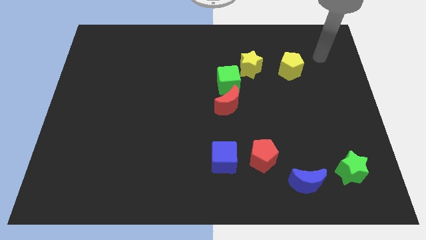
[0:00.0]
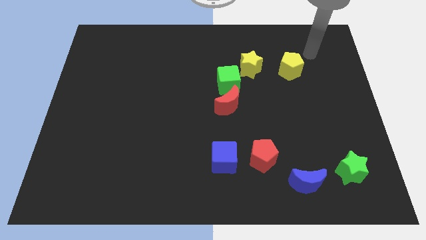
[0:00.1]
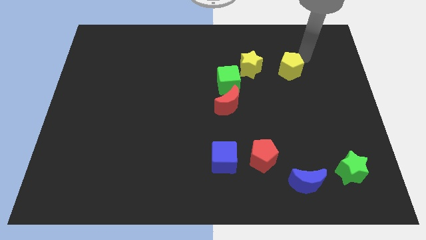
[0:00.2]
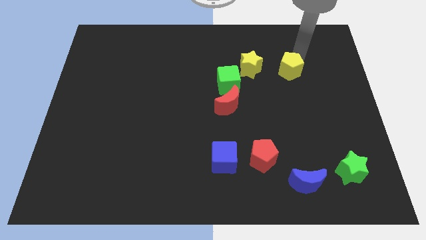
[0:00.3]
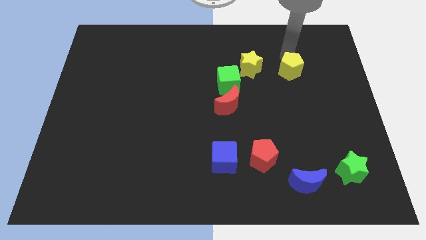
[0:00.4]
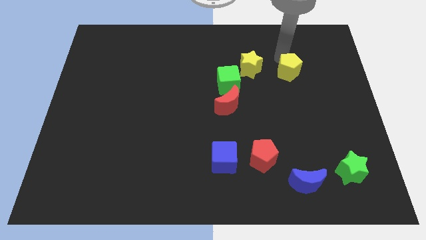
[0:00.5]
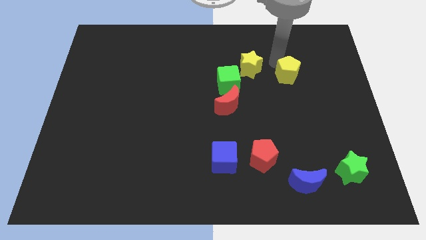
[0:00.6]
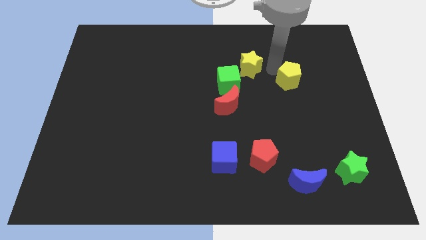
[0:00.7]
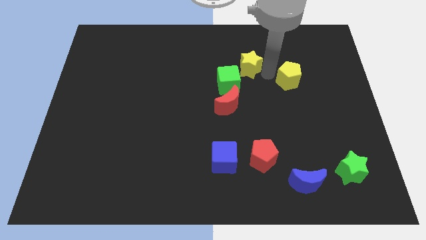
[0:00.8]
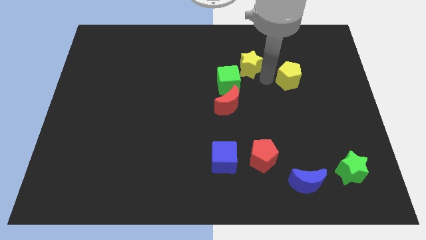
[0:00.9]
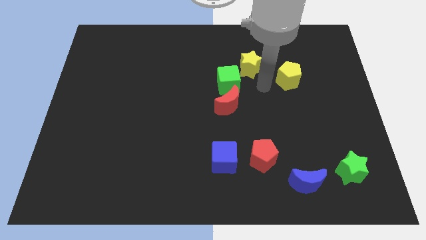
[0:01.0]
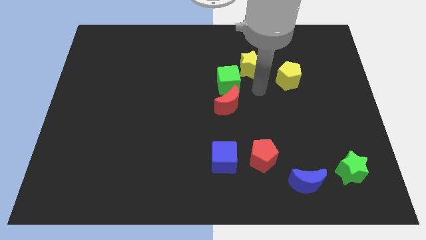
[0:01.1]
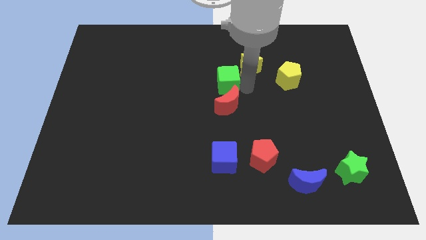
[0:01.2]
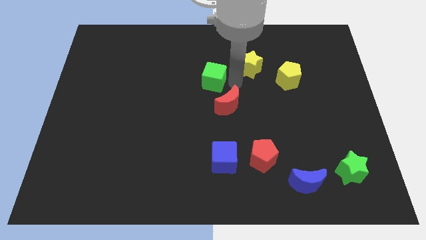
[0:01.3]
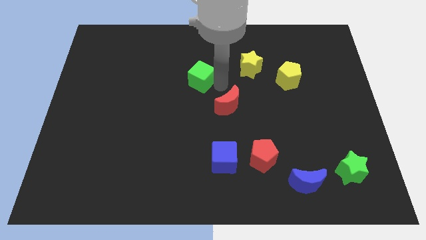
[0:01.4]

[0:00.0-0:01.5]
pull the red moon apart from the green cube

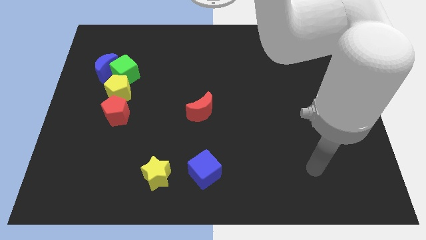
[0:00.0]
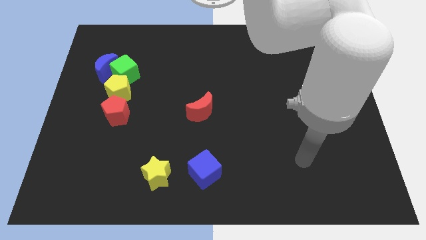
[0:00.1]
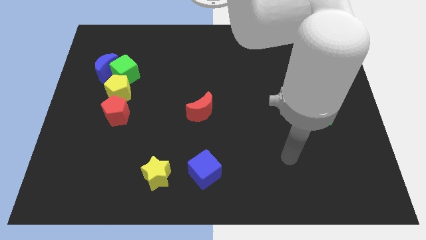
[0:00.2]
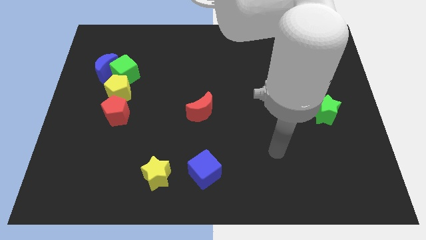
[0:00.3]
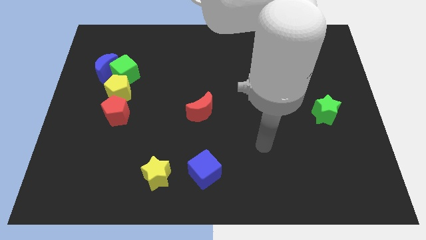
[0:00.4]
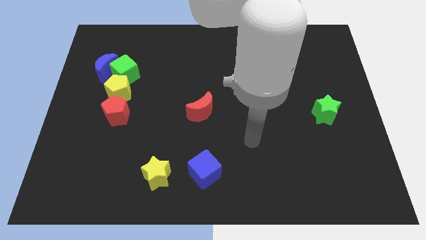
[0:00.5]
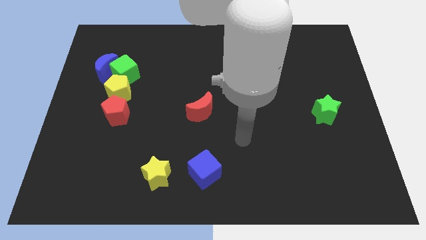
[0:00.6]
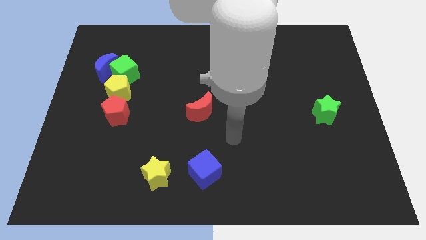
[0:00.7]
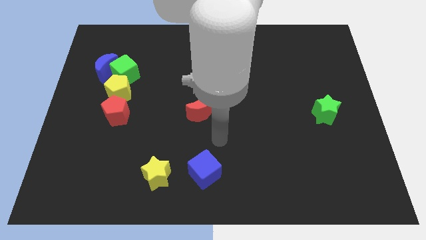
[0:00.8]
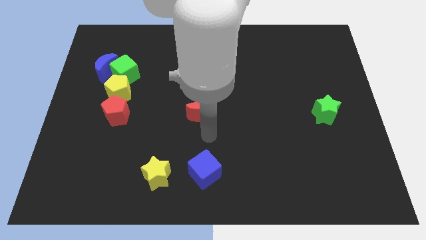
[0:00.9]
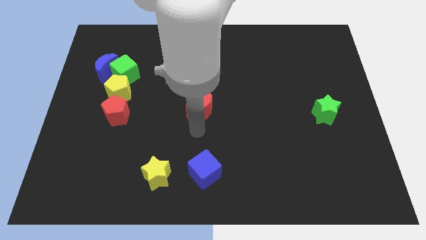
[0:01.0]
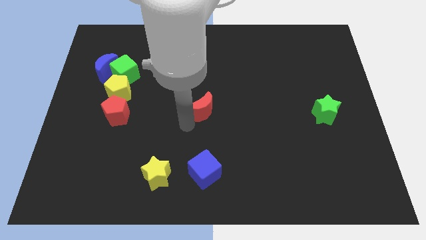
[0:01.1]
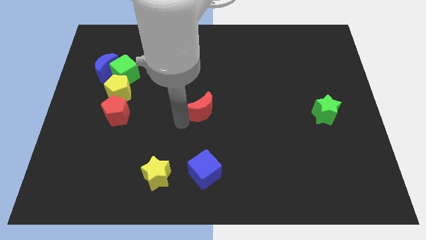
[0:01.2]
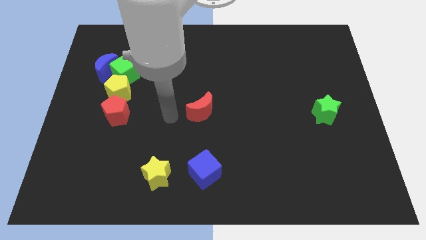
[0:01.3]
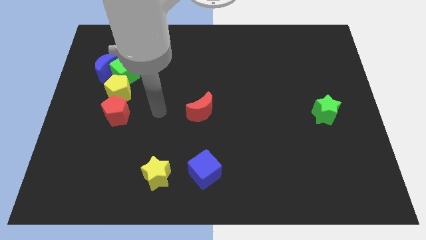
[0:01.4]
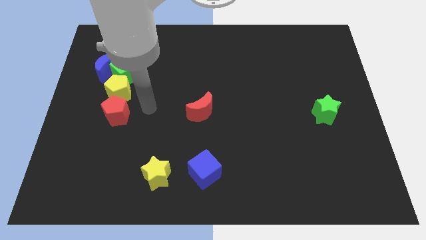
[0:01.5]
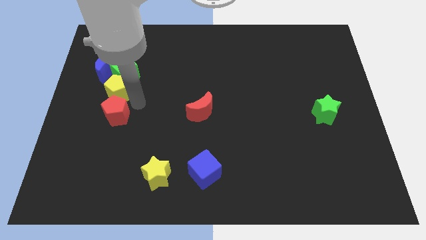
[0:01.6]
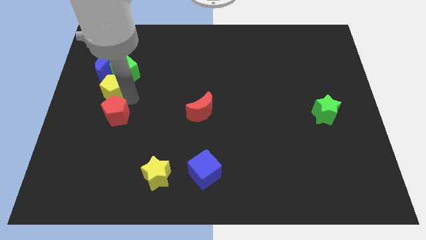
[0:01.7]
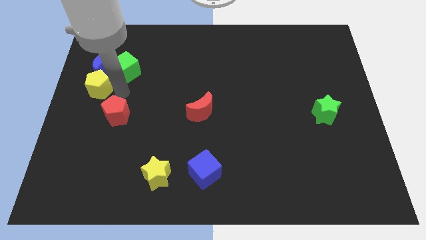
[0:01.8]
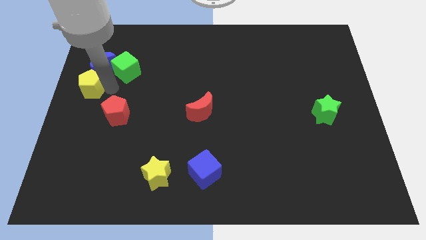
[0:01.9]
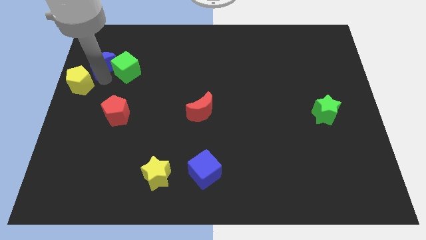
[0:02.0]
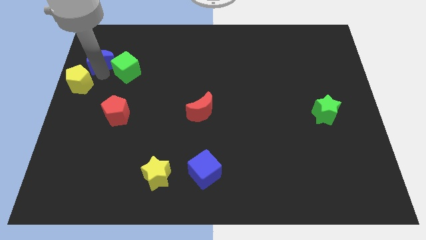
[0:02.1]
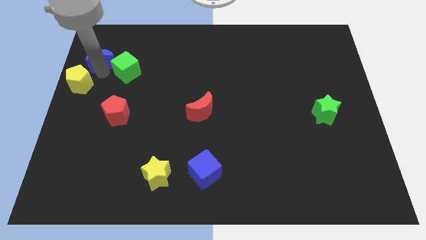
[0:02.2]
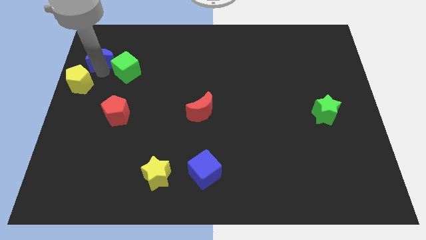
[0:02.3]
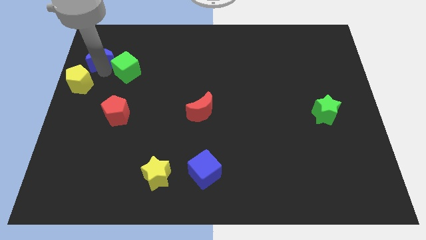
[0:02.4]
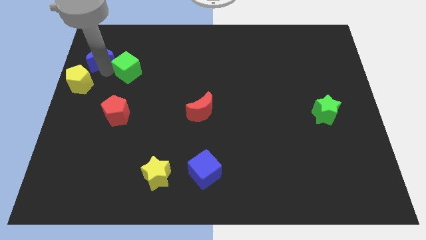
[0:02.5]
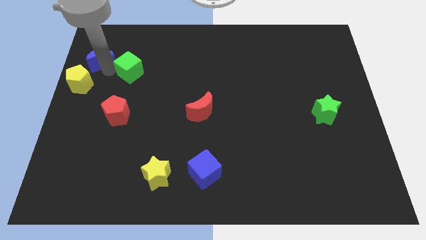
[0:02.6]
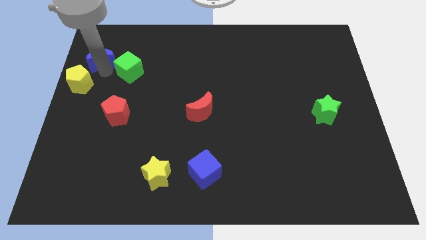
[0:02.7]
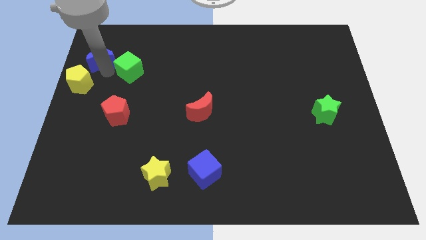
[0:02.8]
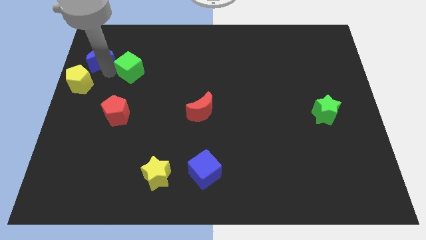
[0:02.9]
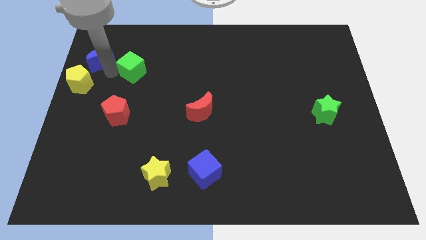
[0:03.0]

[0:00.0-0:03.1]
separate the green cube from the blue moon and yellow pentagon

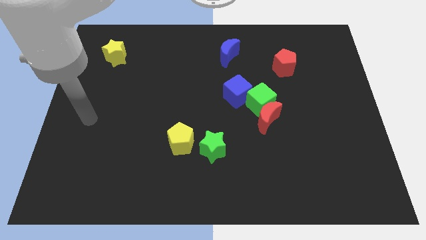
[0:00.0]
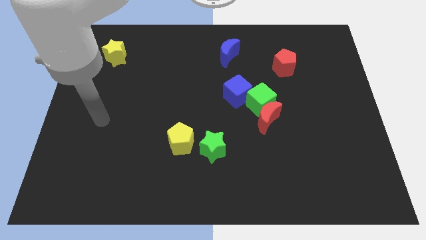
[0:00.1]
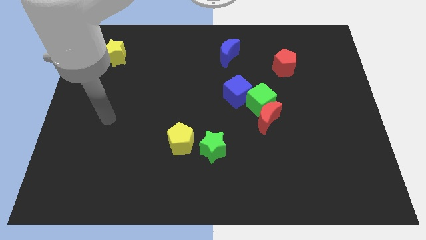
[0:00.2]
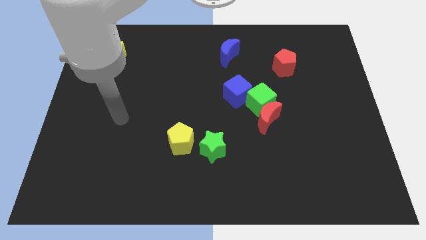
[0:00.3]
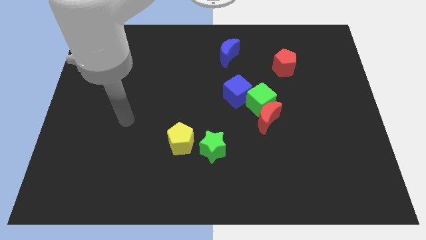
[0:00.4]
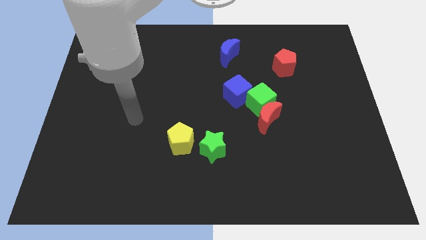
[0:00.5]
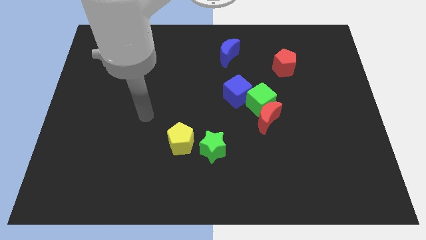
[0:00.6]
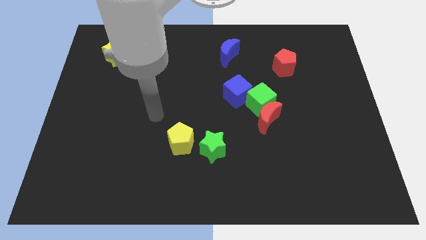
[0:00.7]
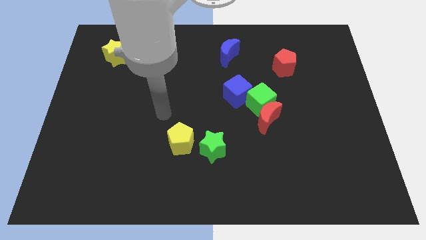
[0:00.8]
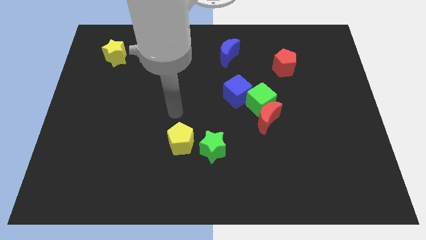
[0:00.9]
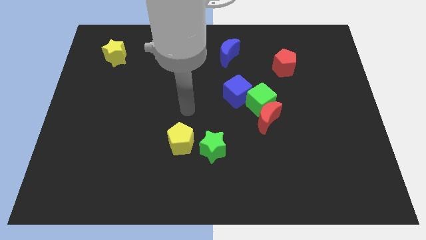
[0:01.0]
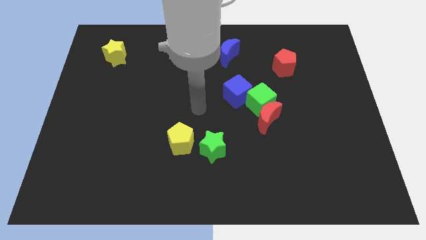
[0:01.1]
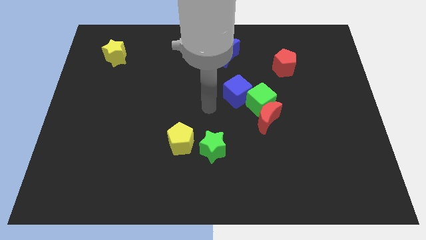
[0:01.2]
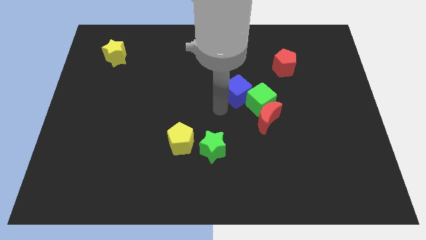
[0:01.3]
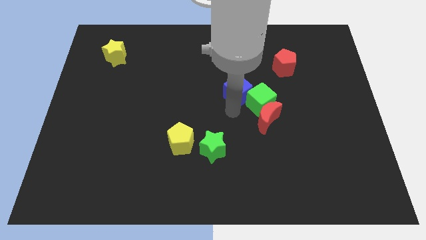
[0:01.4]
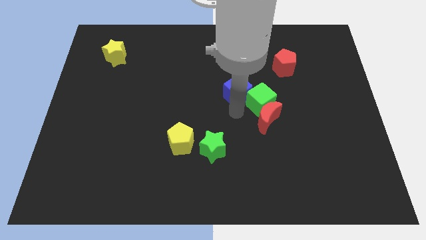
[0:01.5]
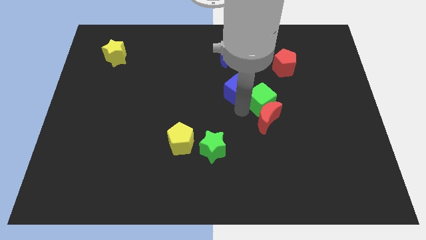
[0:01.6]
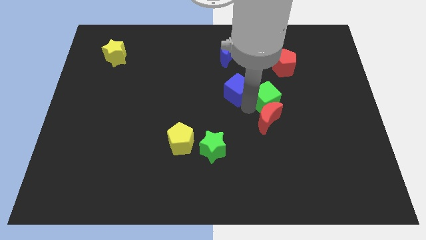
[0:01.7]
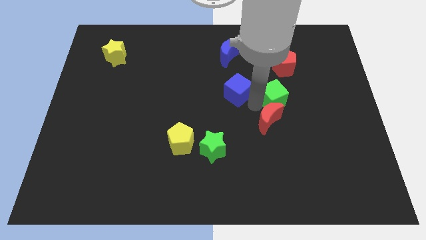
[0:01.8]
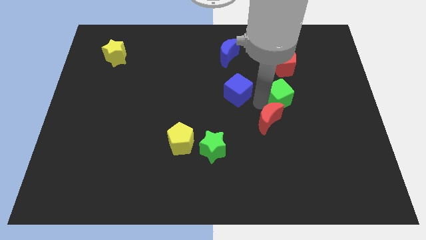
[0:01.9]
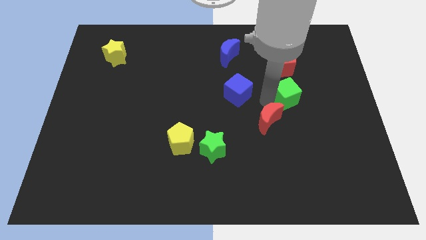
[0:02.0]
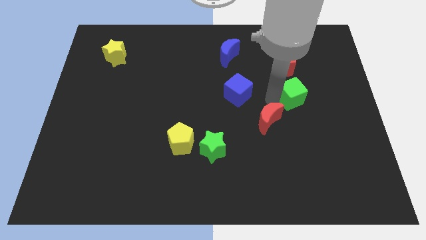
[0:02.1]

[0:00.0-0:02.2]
move the green cube away from the red moon and blue cube

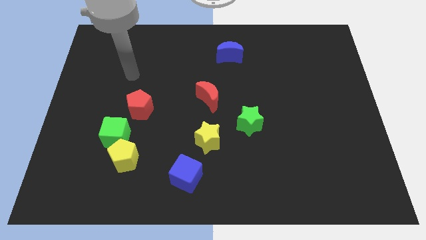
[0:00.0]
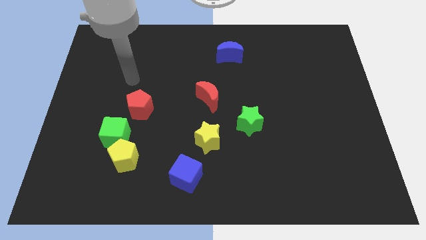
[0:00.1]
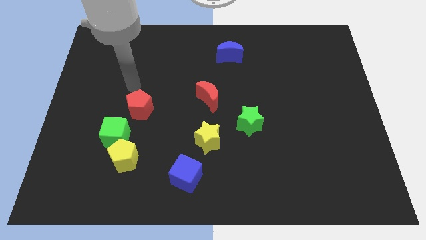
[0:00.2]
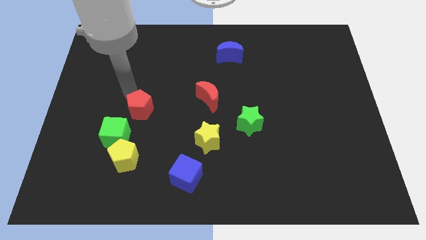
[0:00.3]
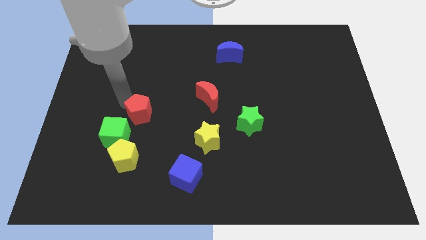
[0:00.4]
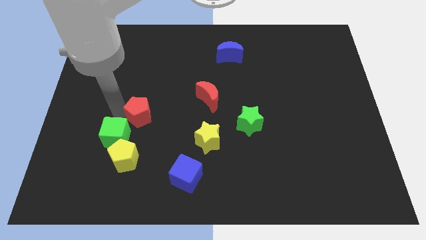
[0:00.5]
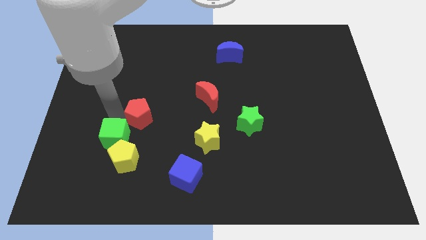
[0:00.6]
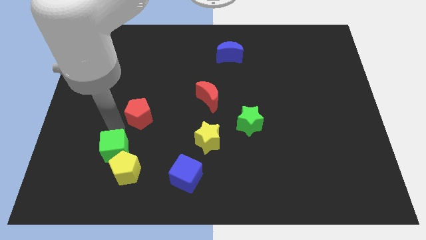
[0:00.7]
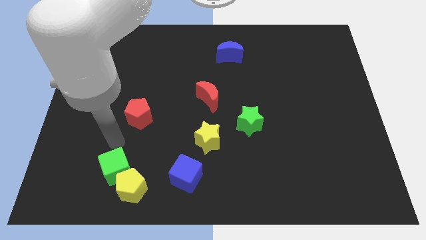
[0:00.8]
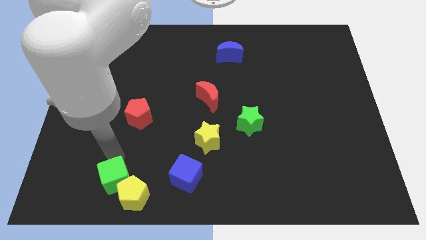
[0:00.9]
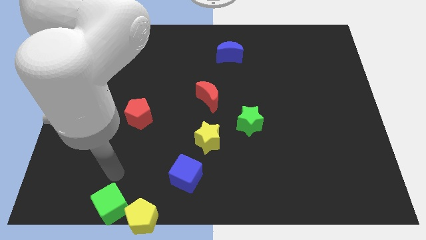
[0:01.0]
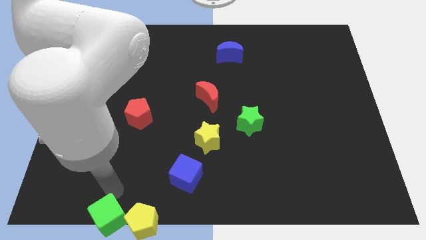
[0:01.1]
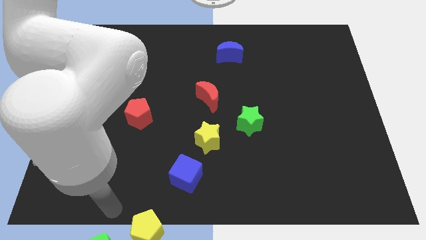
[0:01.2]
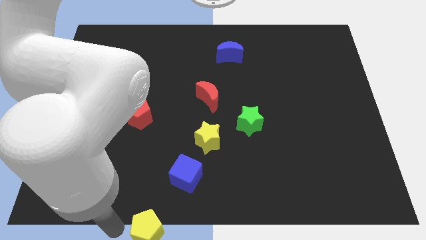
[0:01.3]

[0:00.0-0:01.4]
separate the yellow pentagon from the green cube

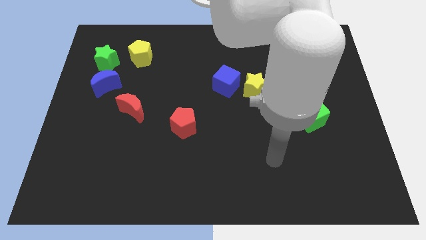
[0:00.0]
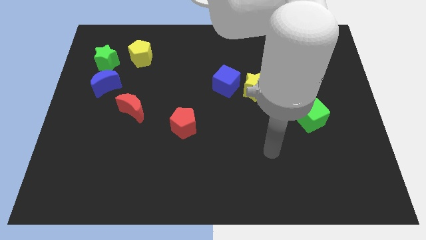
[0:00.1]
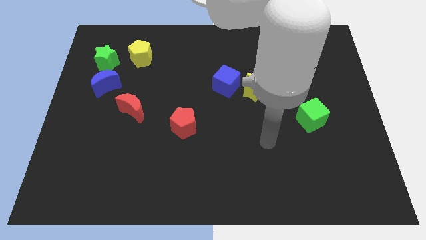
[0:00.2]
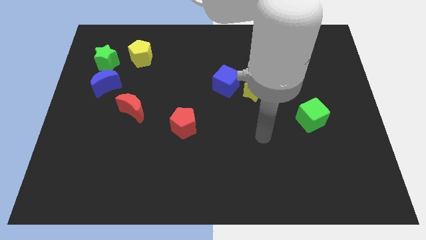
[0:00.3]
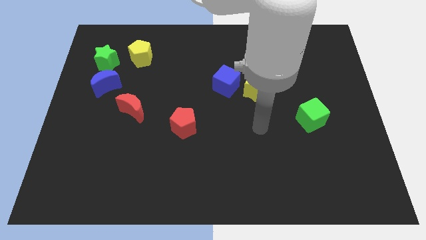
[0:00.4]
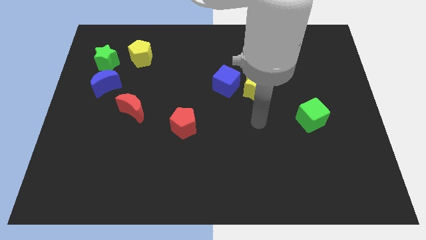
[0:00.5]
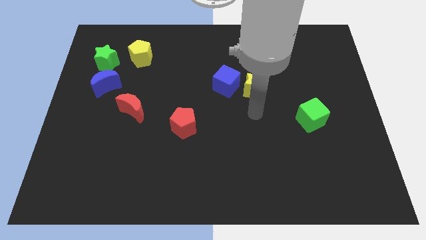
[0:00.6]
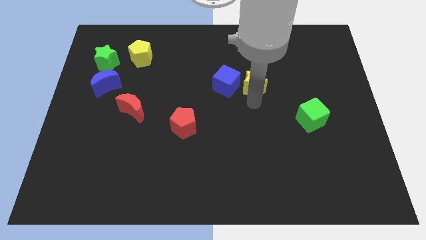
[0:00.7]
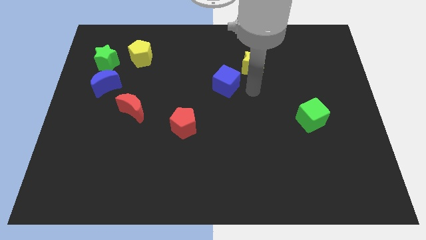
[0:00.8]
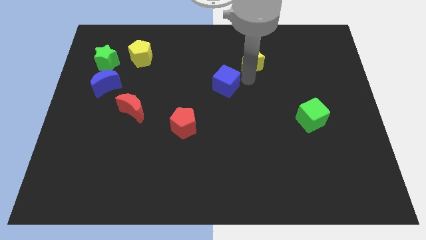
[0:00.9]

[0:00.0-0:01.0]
separate the blue cube from the yellow star
